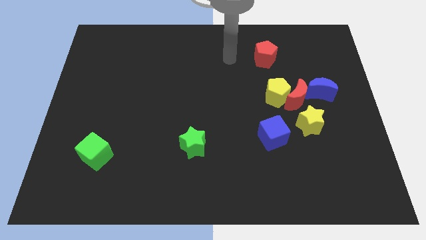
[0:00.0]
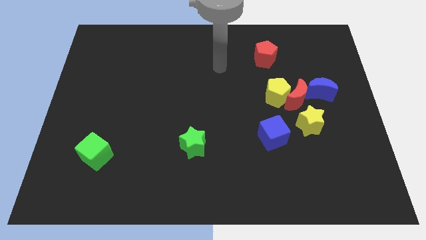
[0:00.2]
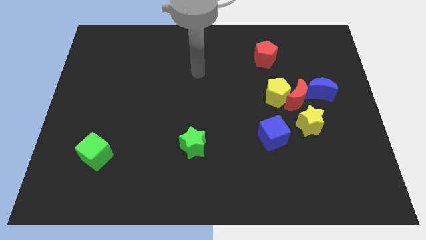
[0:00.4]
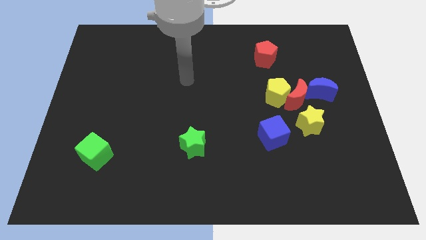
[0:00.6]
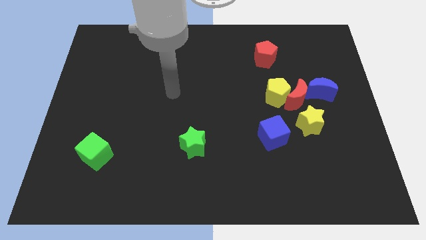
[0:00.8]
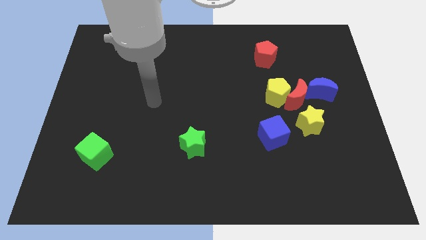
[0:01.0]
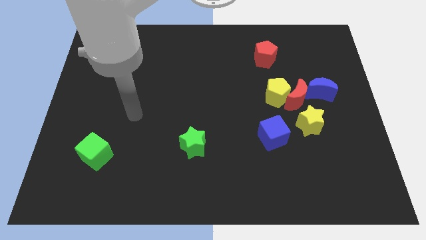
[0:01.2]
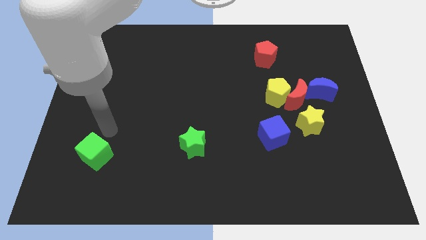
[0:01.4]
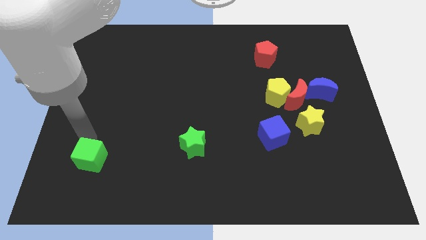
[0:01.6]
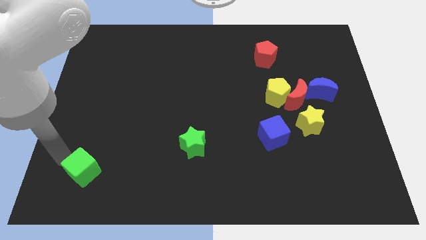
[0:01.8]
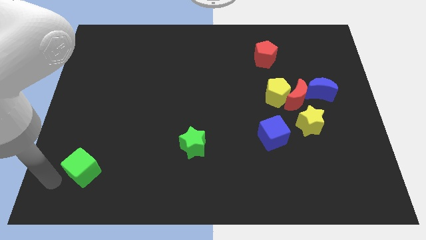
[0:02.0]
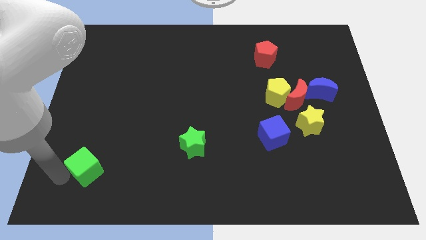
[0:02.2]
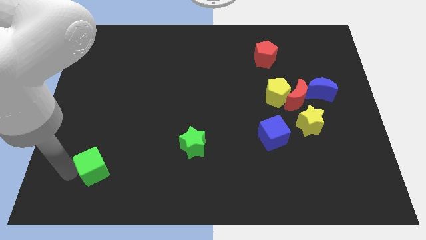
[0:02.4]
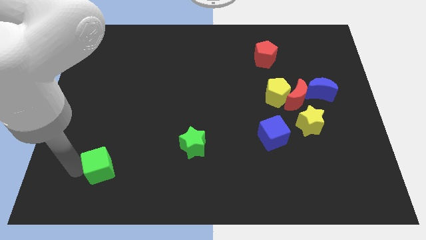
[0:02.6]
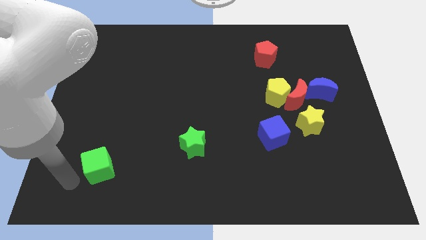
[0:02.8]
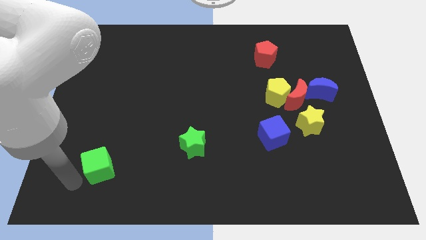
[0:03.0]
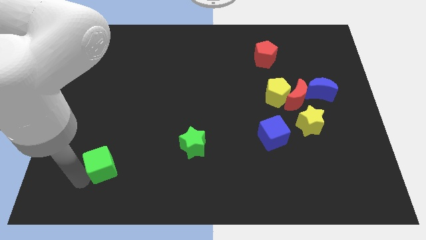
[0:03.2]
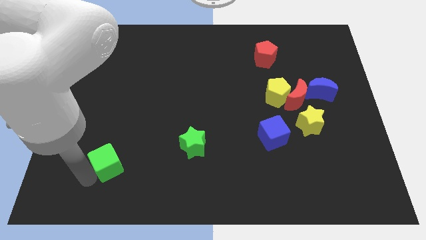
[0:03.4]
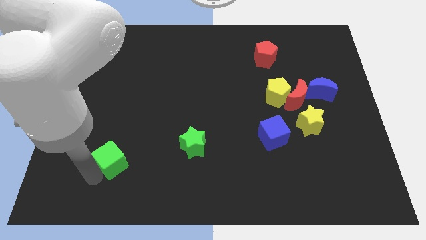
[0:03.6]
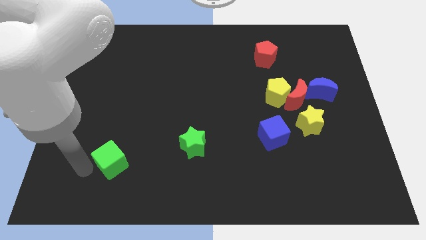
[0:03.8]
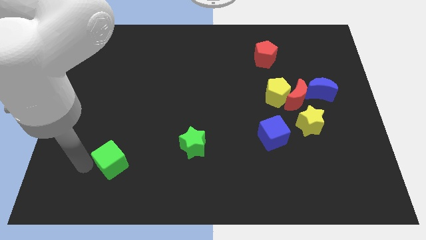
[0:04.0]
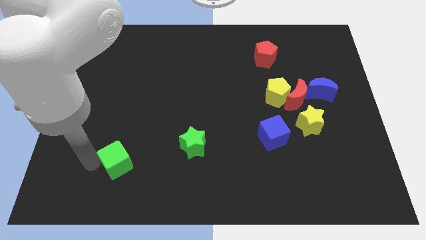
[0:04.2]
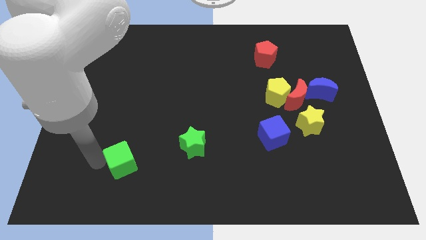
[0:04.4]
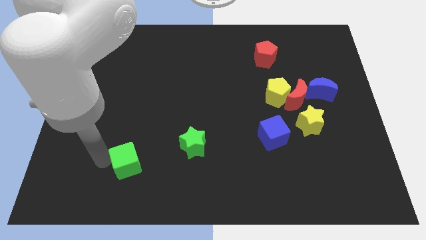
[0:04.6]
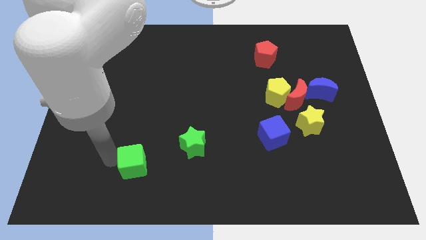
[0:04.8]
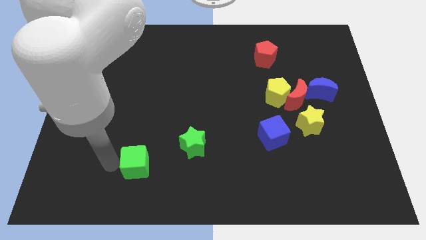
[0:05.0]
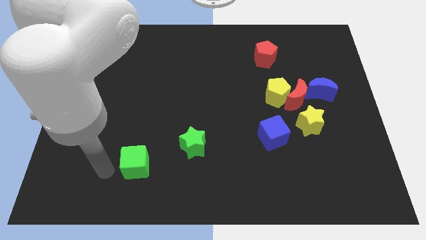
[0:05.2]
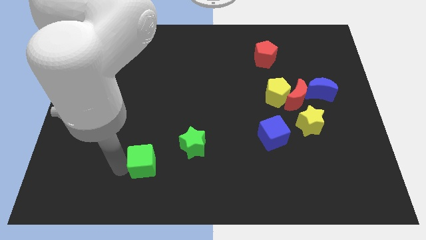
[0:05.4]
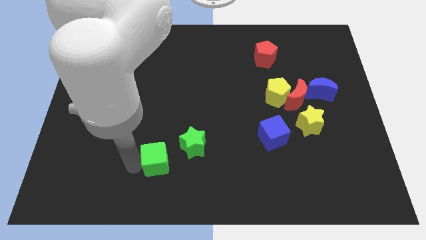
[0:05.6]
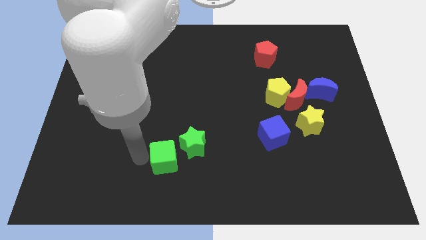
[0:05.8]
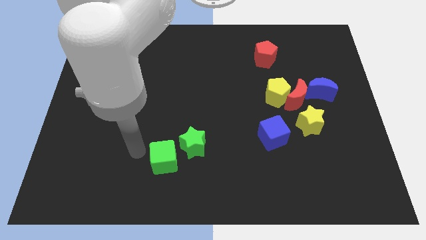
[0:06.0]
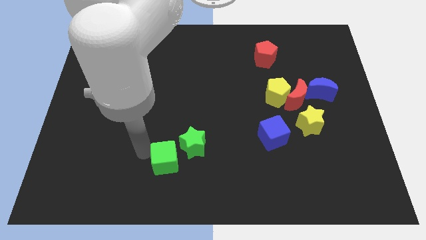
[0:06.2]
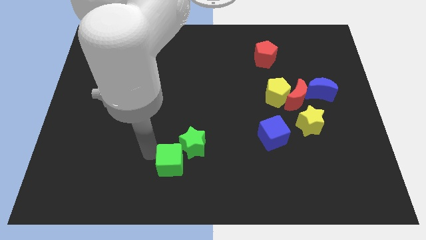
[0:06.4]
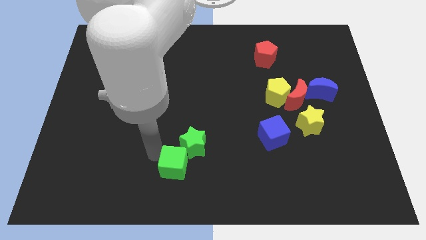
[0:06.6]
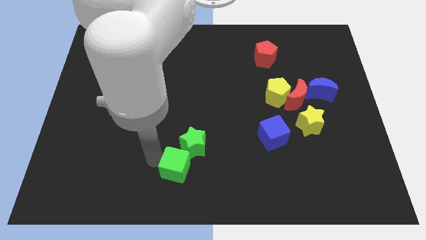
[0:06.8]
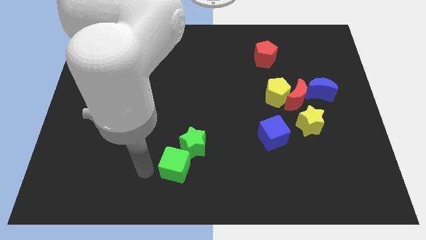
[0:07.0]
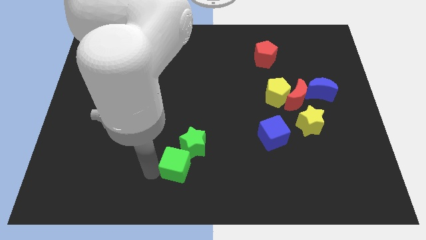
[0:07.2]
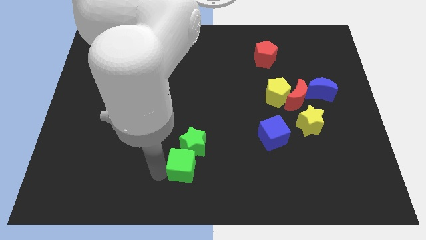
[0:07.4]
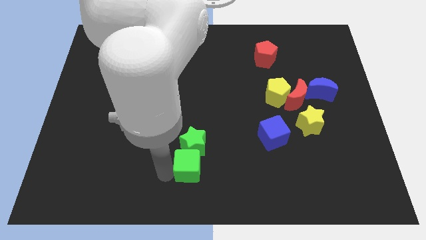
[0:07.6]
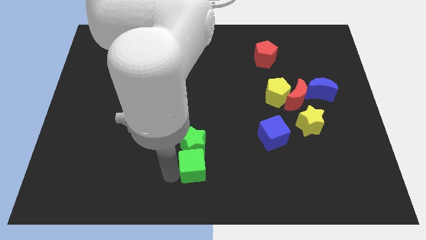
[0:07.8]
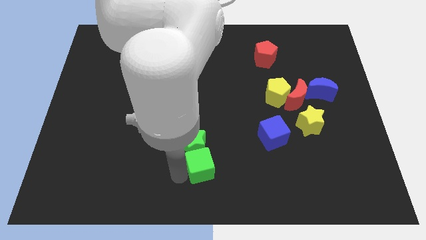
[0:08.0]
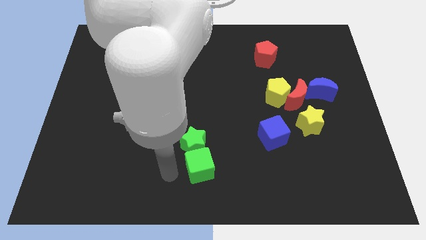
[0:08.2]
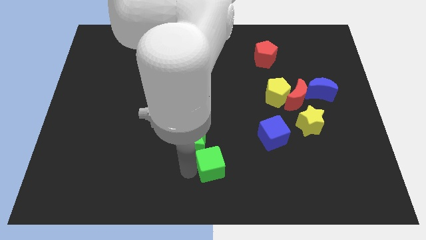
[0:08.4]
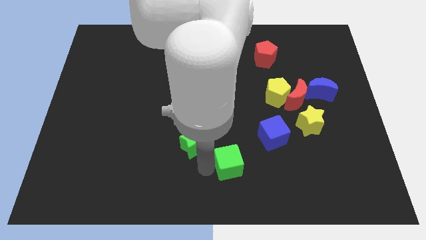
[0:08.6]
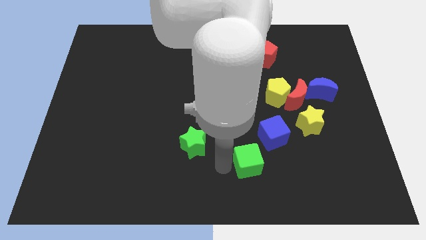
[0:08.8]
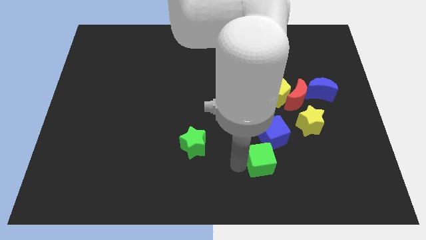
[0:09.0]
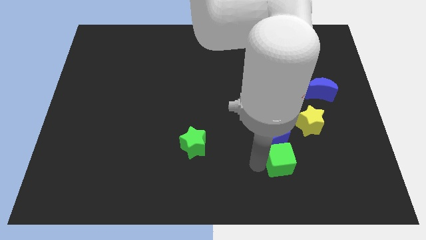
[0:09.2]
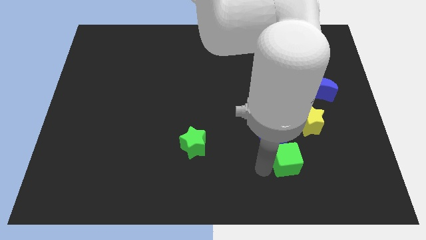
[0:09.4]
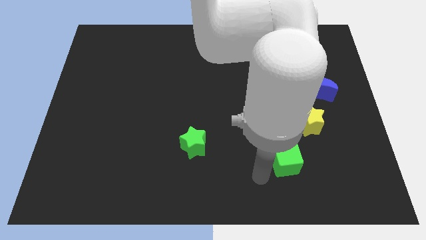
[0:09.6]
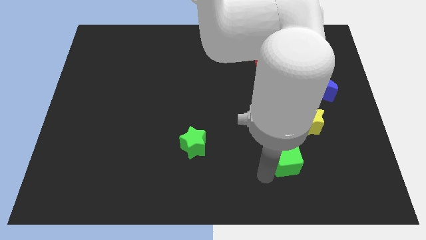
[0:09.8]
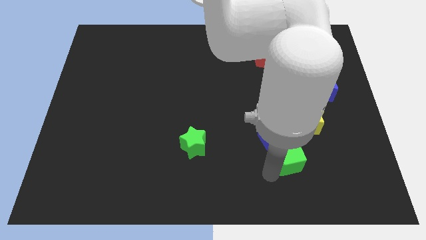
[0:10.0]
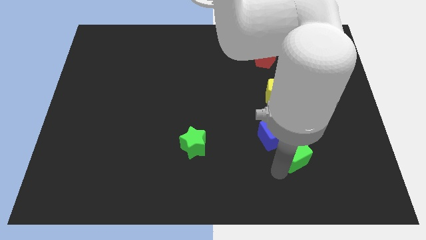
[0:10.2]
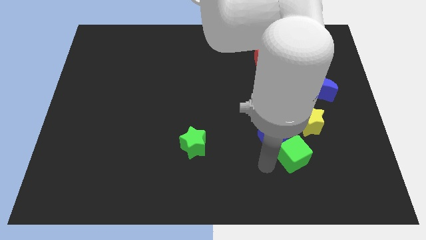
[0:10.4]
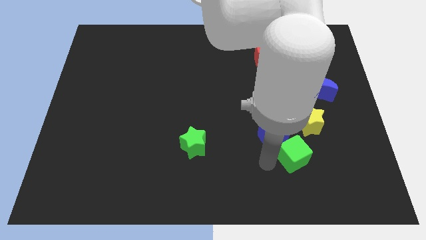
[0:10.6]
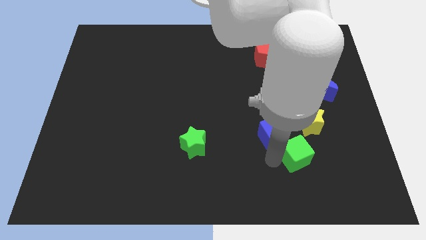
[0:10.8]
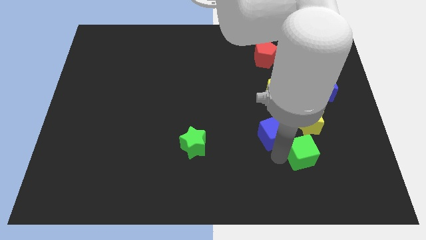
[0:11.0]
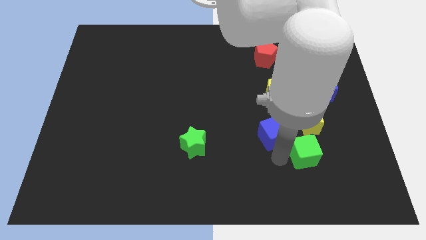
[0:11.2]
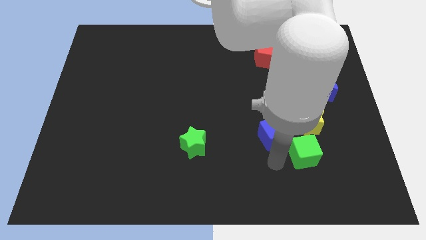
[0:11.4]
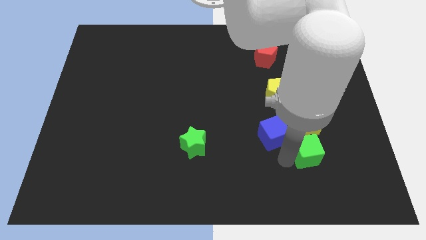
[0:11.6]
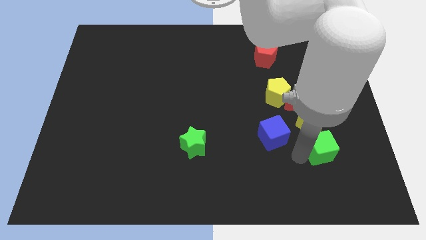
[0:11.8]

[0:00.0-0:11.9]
put the green cube to the bottom right side of the yellow star
